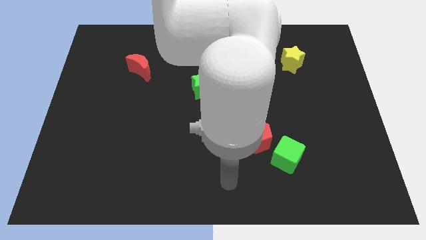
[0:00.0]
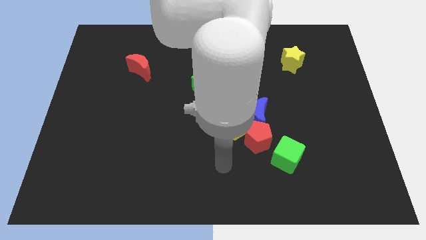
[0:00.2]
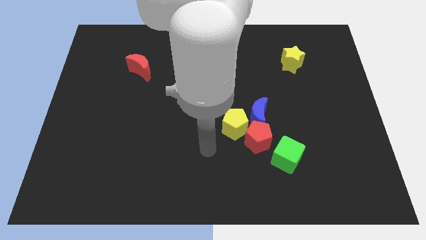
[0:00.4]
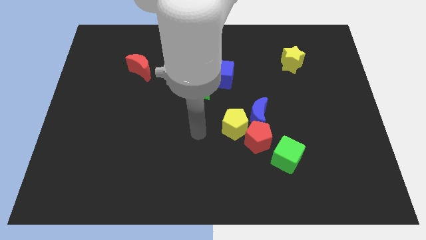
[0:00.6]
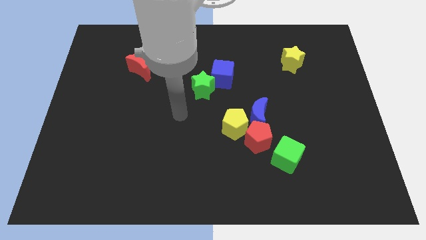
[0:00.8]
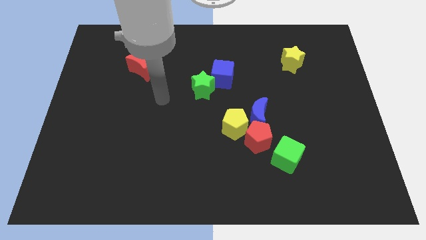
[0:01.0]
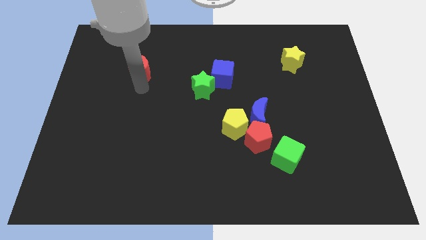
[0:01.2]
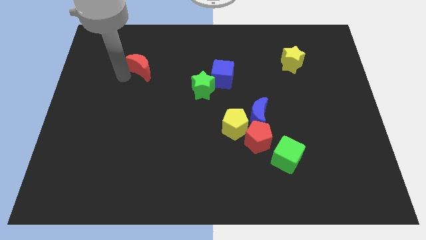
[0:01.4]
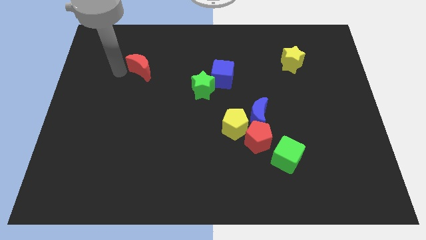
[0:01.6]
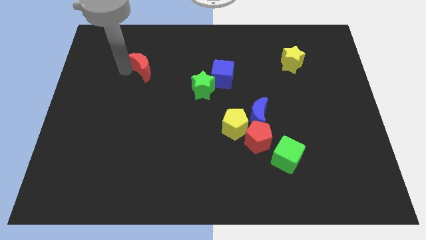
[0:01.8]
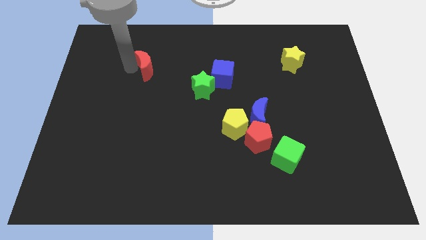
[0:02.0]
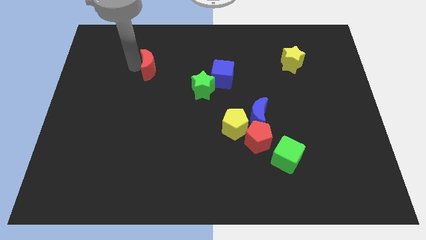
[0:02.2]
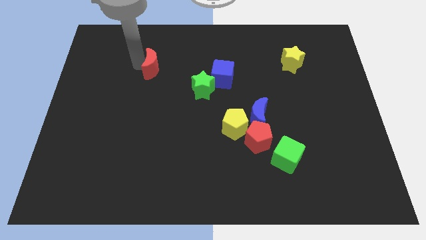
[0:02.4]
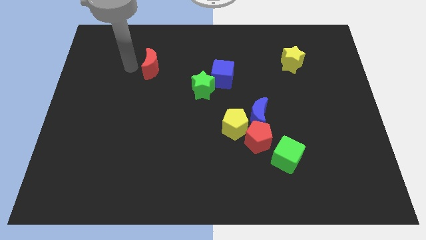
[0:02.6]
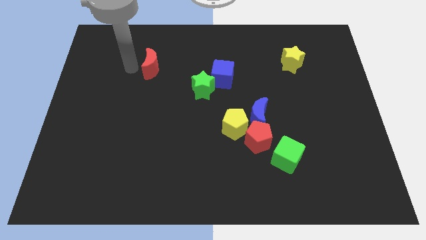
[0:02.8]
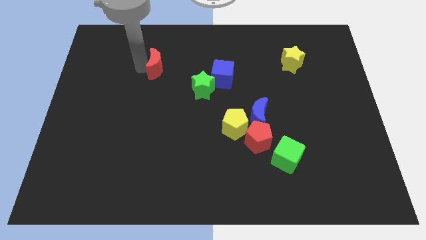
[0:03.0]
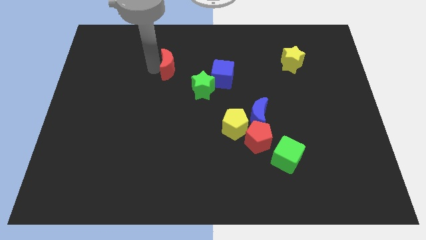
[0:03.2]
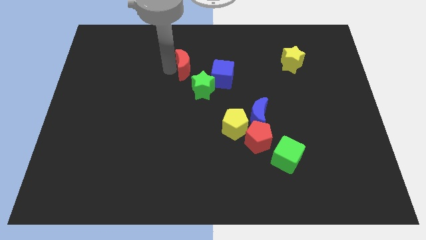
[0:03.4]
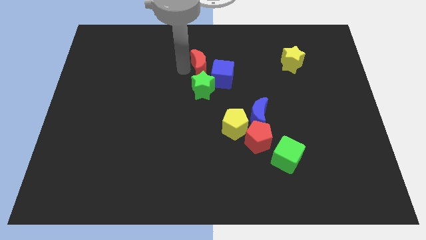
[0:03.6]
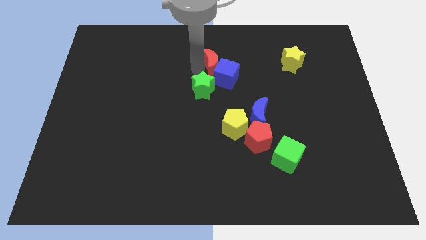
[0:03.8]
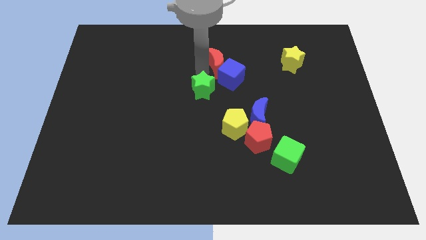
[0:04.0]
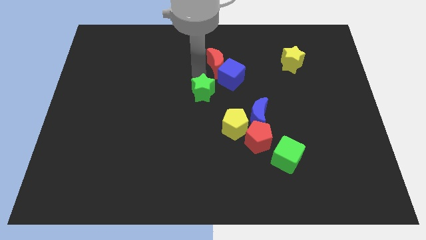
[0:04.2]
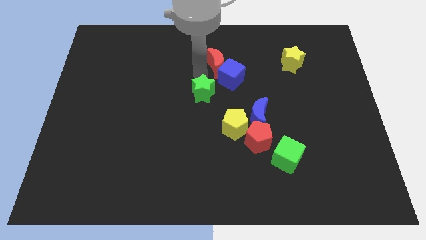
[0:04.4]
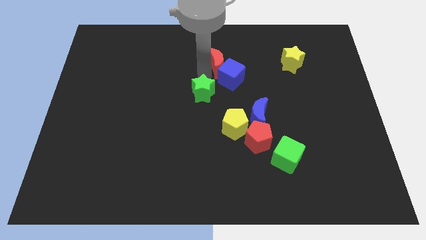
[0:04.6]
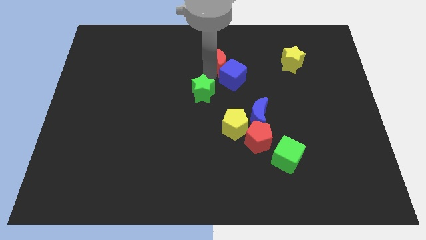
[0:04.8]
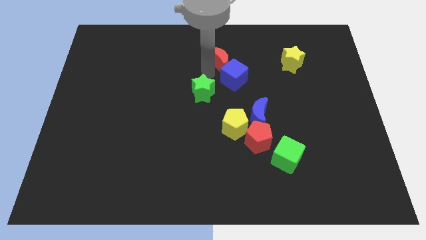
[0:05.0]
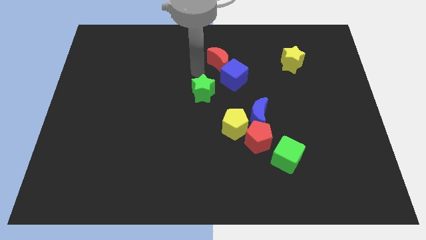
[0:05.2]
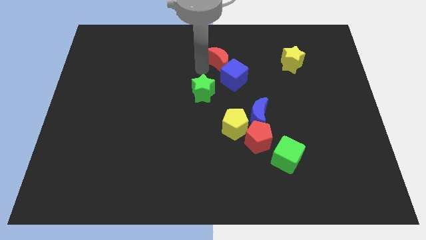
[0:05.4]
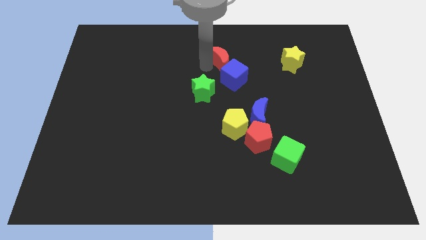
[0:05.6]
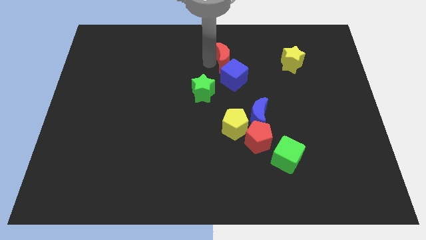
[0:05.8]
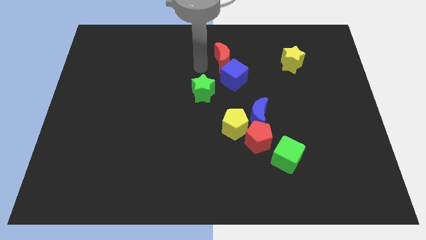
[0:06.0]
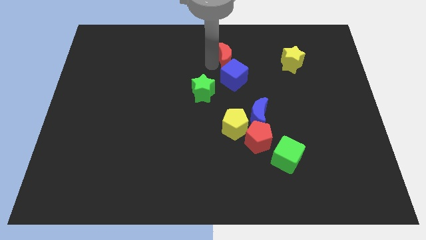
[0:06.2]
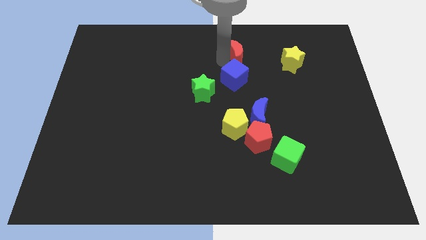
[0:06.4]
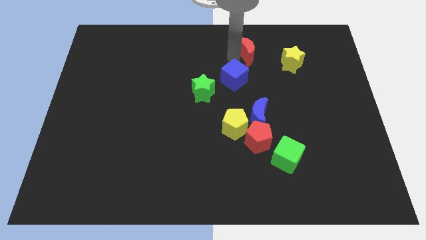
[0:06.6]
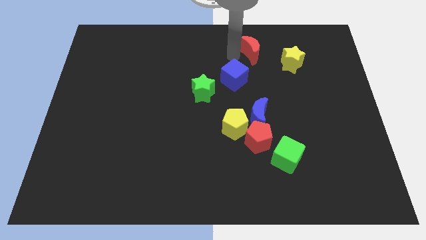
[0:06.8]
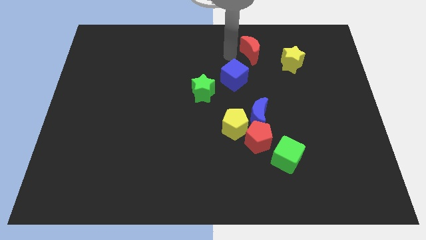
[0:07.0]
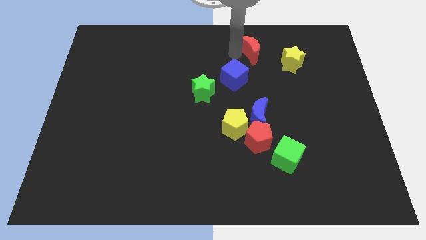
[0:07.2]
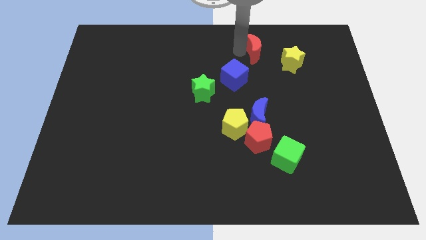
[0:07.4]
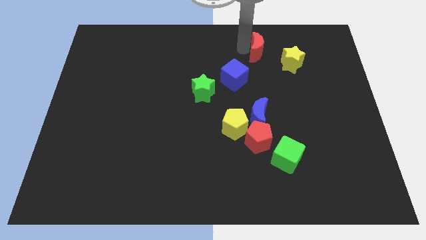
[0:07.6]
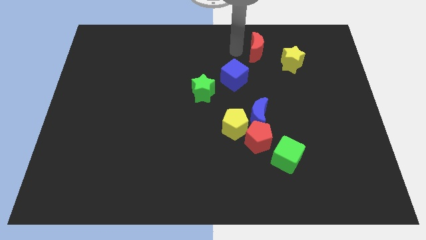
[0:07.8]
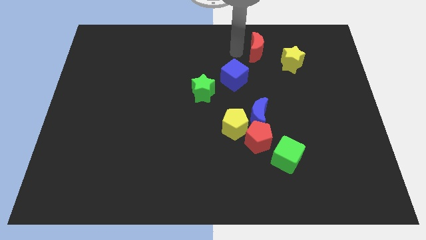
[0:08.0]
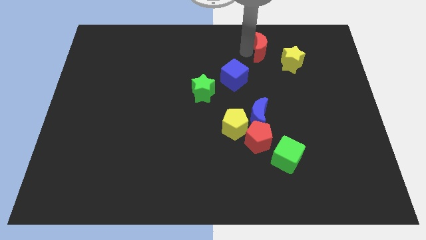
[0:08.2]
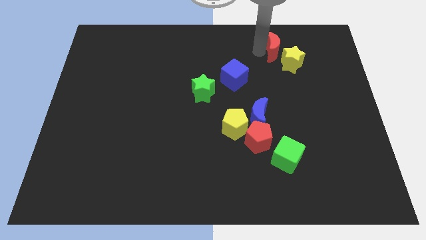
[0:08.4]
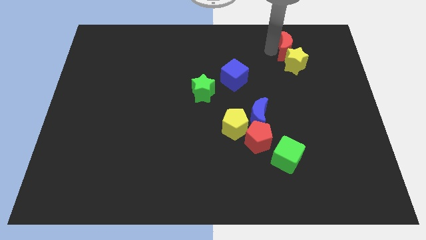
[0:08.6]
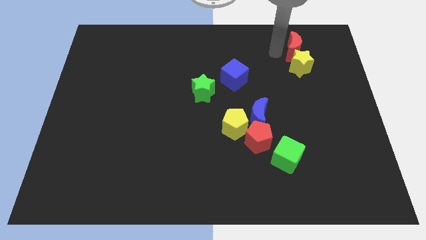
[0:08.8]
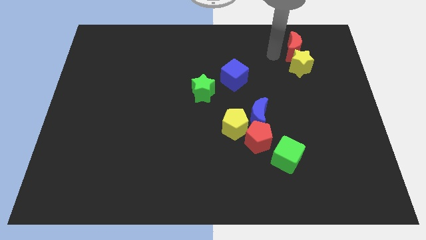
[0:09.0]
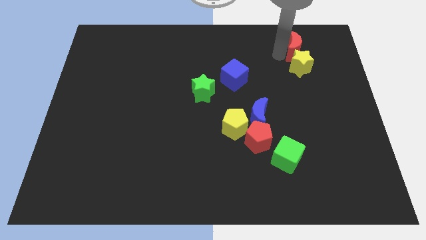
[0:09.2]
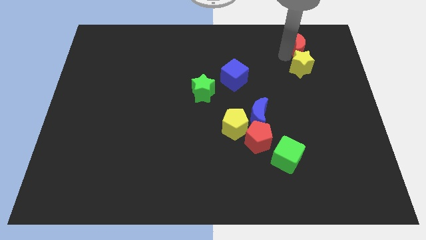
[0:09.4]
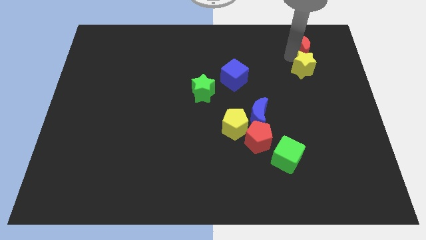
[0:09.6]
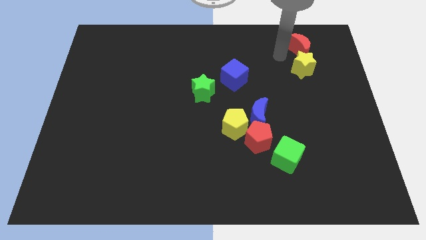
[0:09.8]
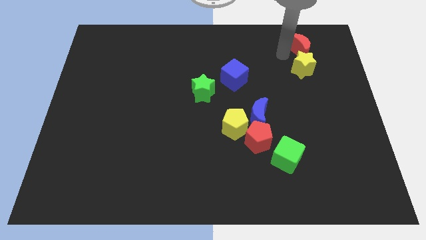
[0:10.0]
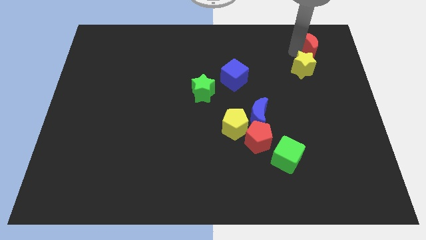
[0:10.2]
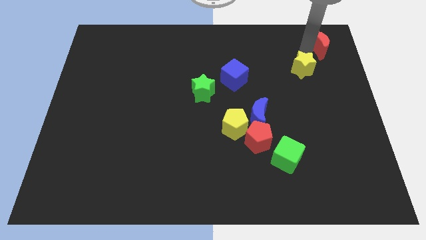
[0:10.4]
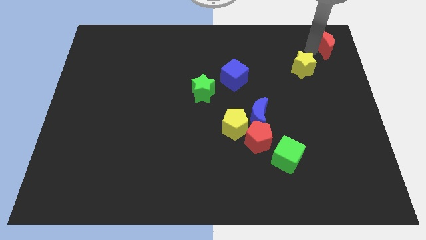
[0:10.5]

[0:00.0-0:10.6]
move the red moon to the upper right corner

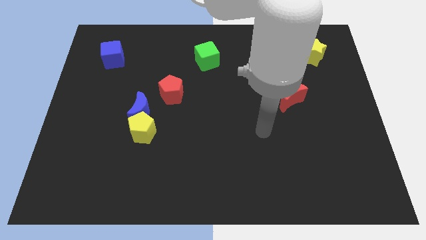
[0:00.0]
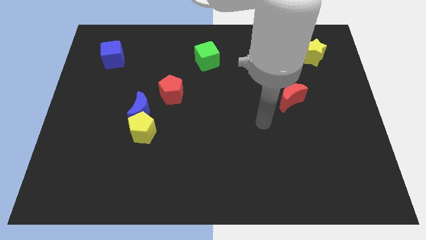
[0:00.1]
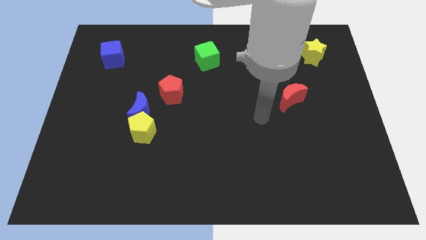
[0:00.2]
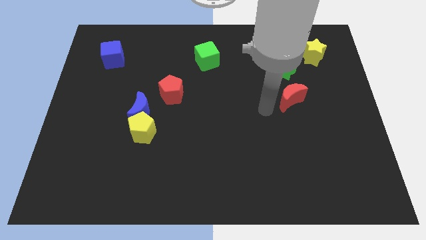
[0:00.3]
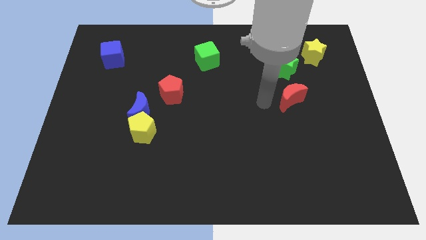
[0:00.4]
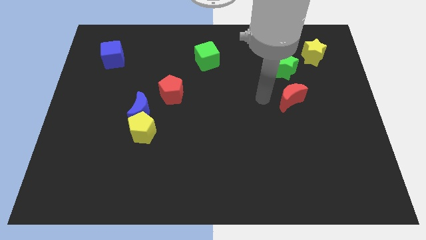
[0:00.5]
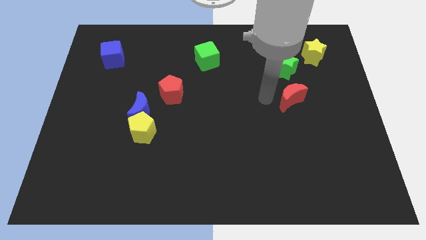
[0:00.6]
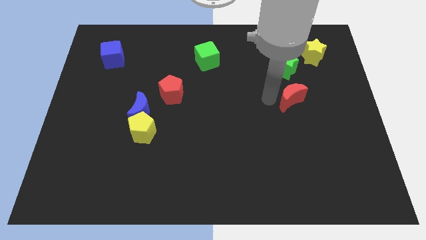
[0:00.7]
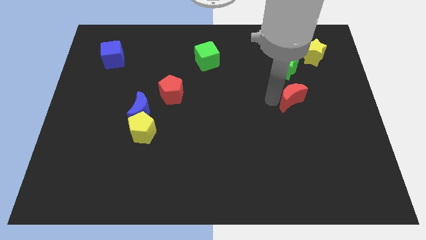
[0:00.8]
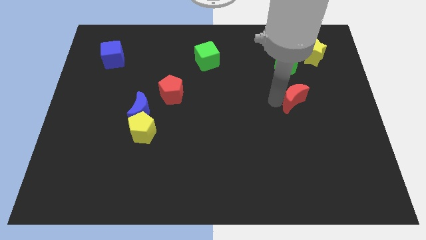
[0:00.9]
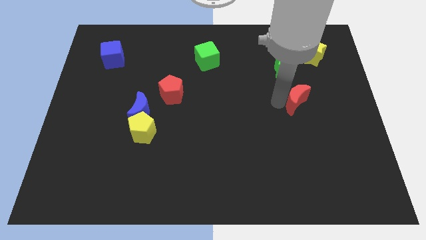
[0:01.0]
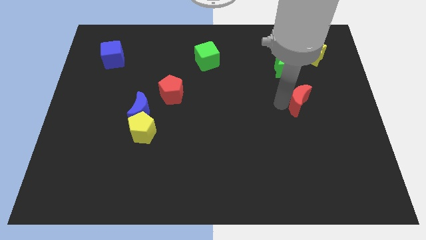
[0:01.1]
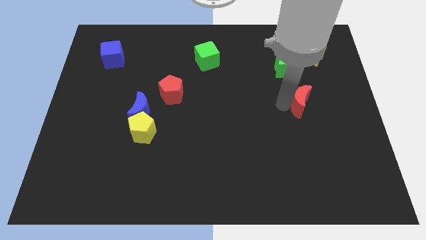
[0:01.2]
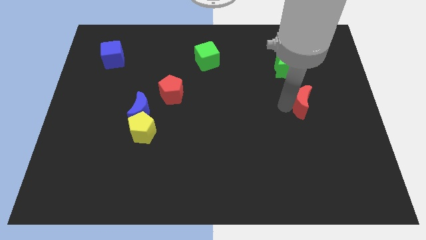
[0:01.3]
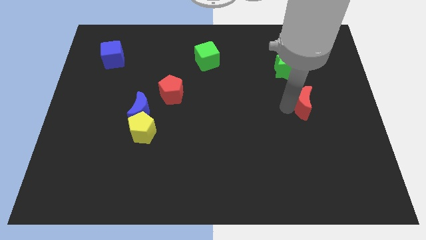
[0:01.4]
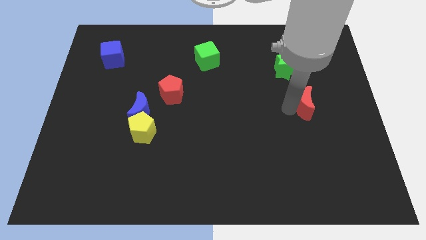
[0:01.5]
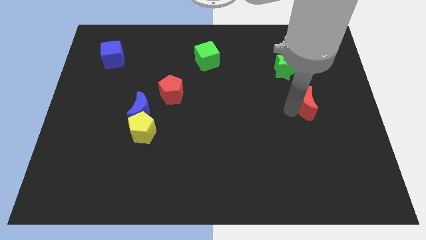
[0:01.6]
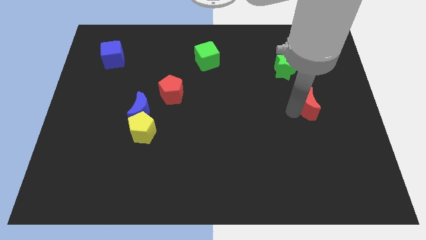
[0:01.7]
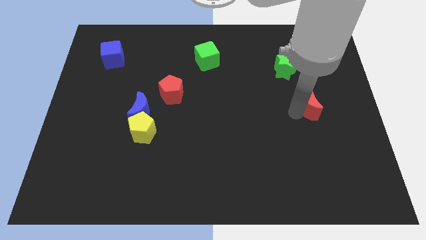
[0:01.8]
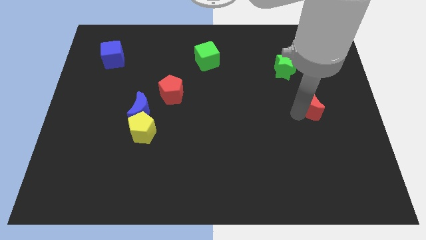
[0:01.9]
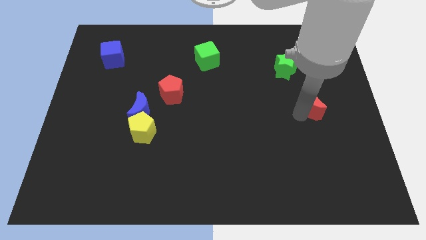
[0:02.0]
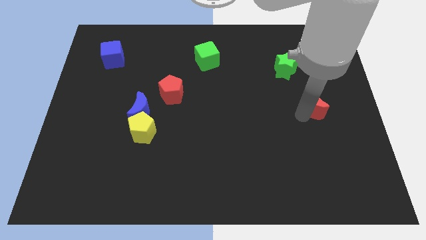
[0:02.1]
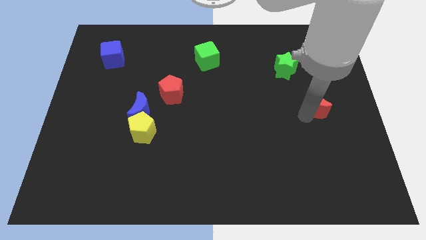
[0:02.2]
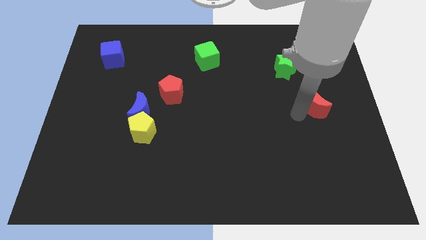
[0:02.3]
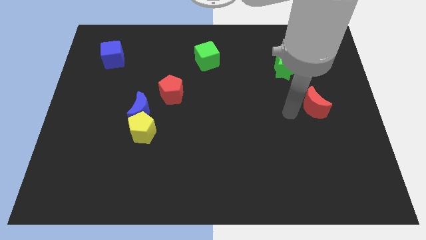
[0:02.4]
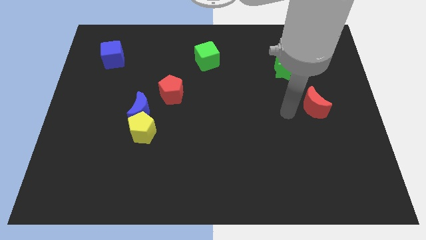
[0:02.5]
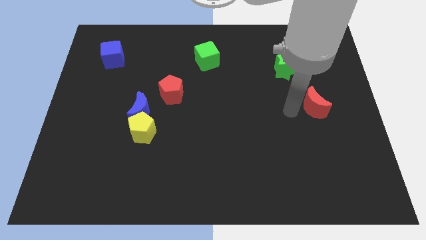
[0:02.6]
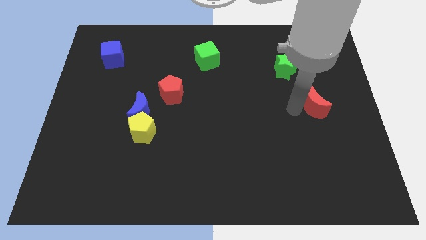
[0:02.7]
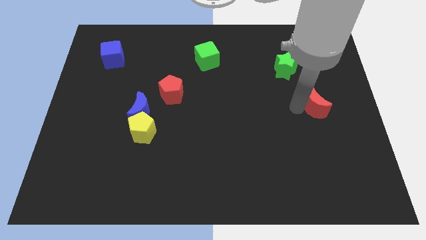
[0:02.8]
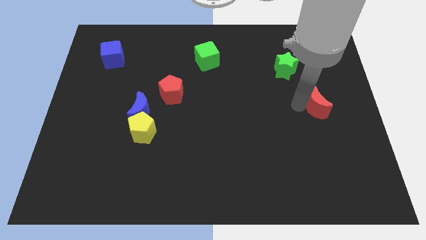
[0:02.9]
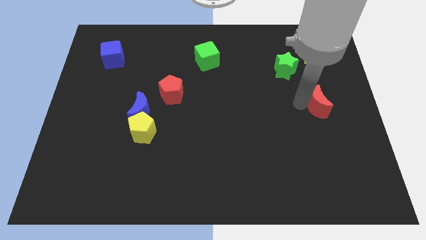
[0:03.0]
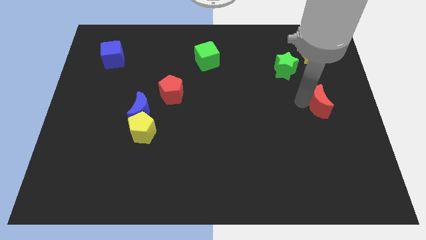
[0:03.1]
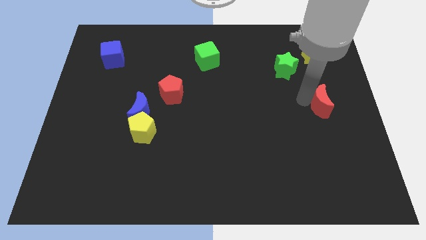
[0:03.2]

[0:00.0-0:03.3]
push the red moon to the center right
